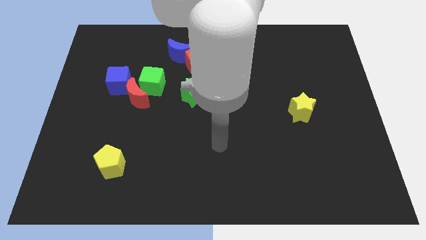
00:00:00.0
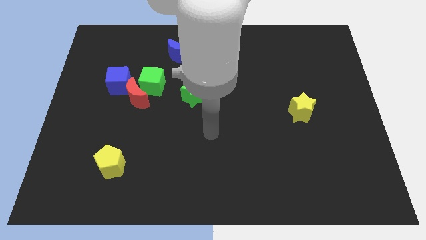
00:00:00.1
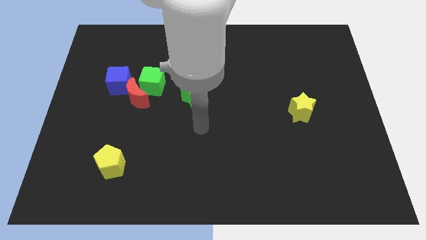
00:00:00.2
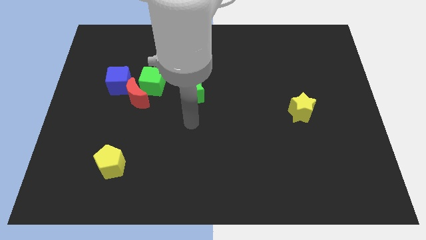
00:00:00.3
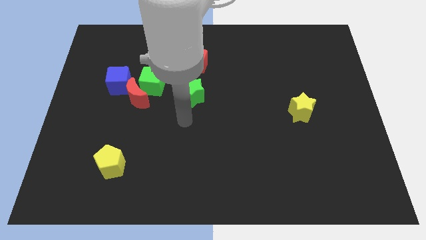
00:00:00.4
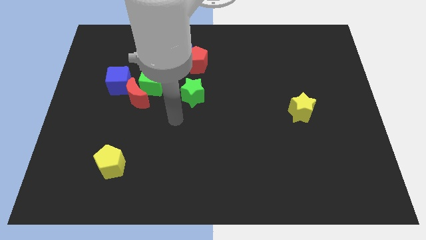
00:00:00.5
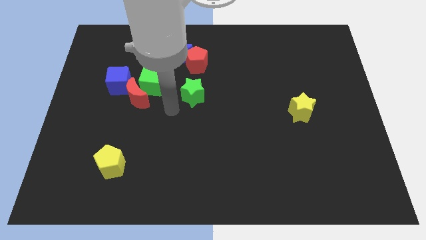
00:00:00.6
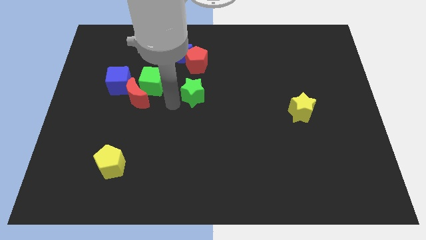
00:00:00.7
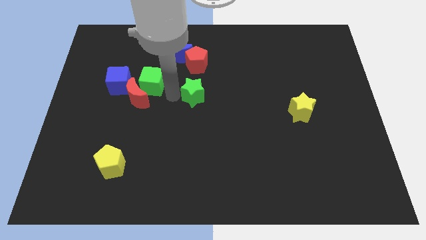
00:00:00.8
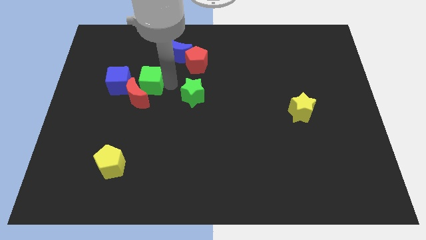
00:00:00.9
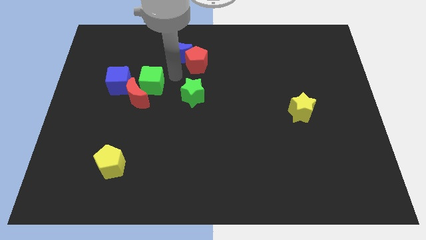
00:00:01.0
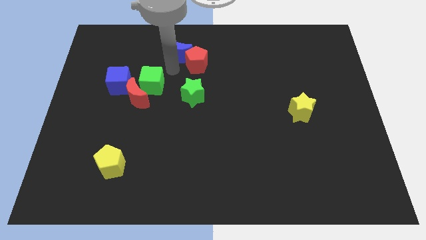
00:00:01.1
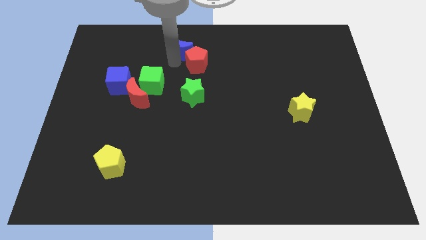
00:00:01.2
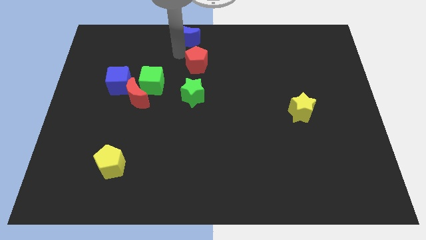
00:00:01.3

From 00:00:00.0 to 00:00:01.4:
pull the red pentagon apart from the blue moon

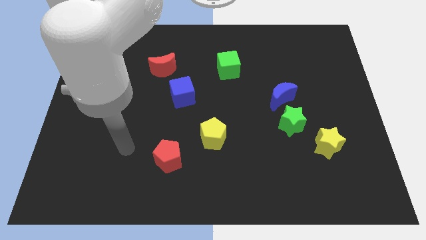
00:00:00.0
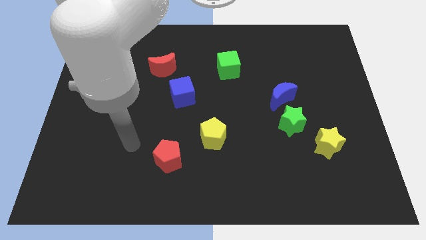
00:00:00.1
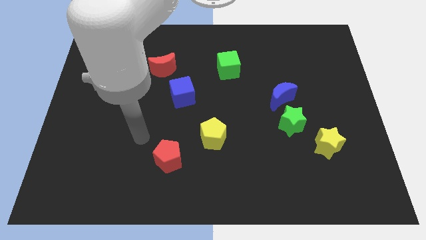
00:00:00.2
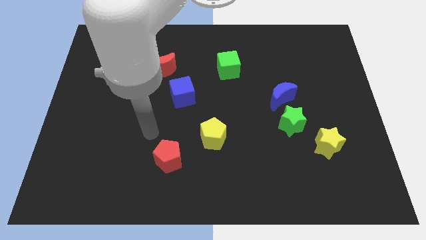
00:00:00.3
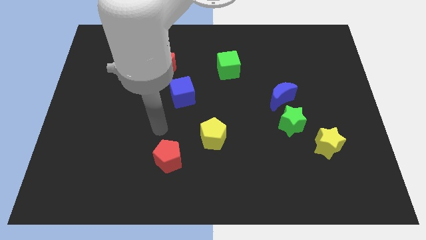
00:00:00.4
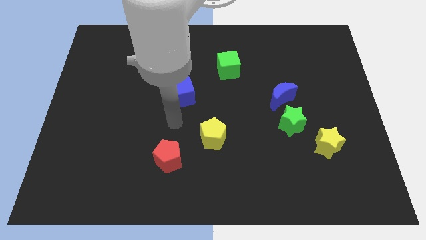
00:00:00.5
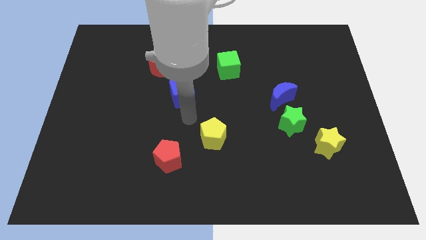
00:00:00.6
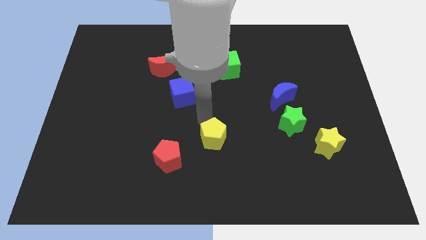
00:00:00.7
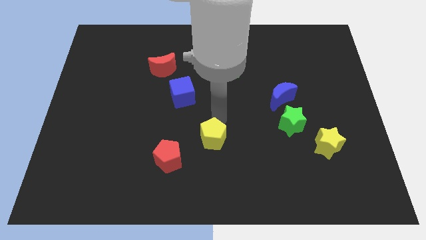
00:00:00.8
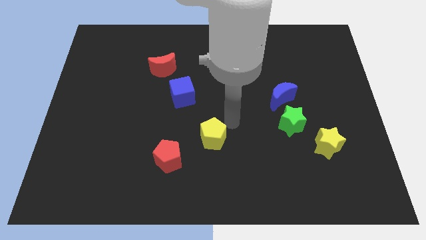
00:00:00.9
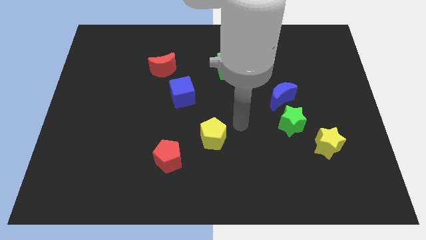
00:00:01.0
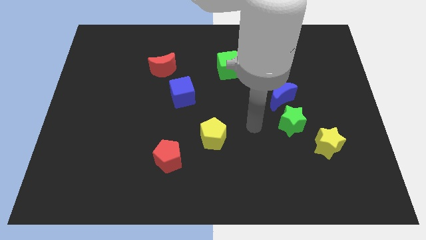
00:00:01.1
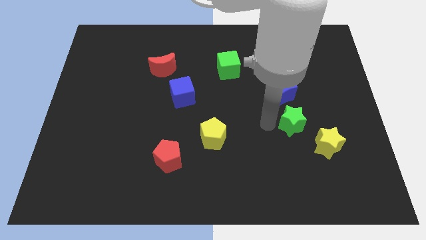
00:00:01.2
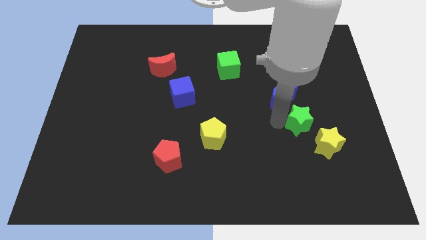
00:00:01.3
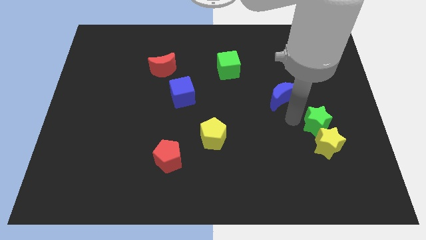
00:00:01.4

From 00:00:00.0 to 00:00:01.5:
pull the blue moon apart from the green star

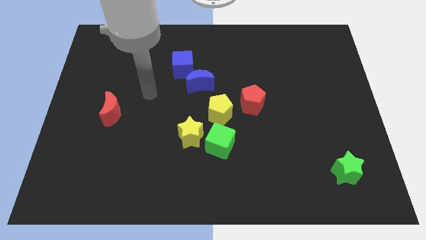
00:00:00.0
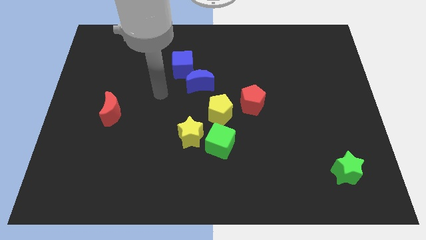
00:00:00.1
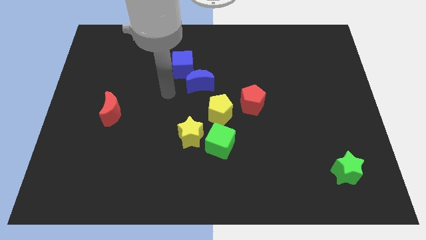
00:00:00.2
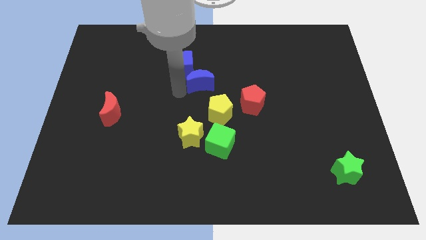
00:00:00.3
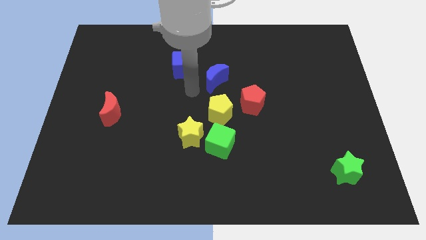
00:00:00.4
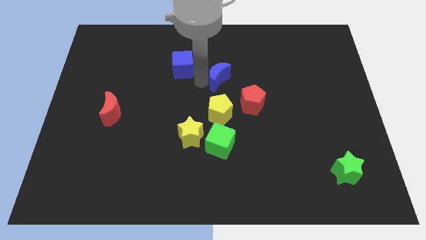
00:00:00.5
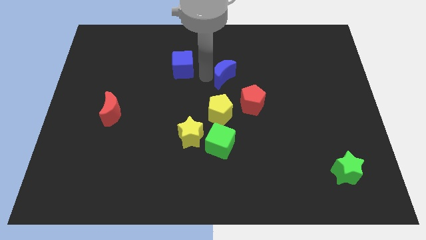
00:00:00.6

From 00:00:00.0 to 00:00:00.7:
move the blue cube away from the blue moon

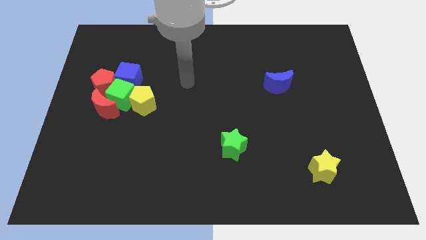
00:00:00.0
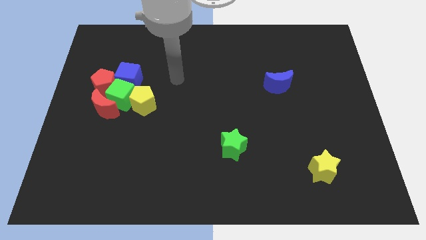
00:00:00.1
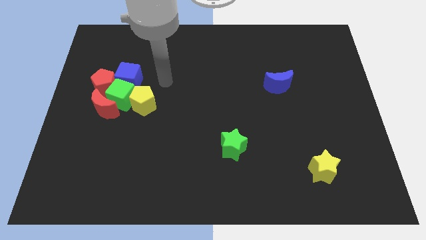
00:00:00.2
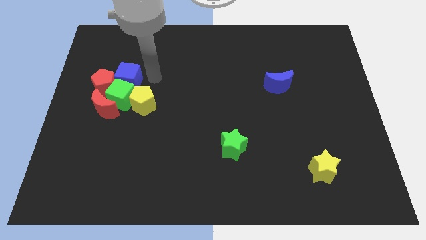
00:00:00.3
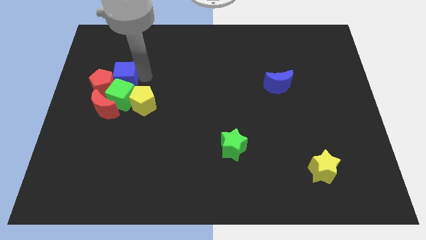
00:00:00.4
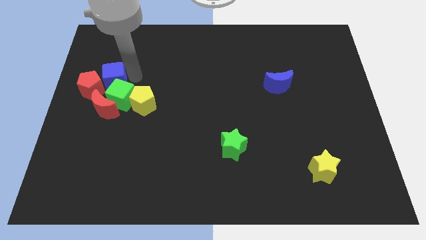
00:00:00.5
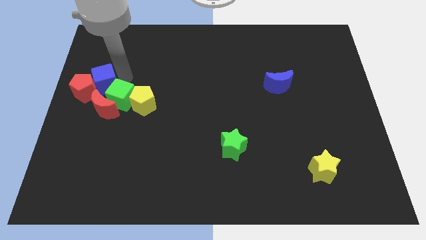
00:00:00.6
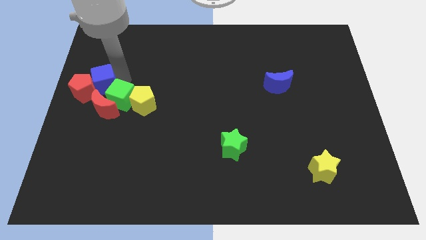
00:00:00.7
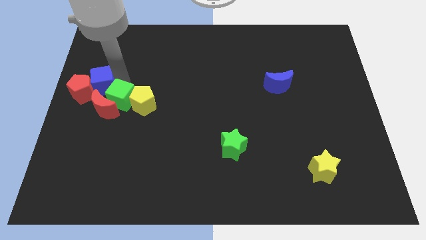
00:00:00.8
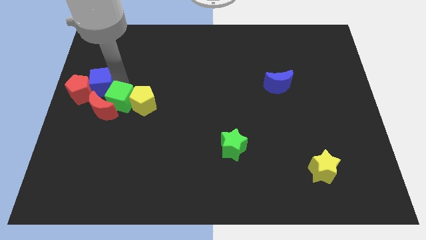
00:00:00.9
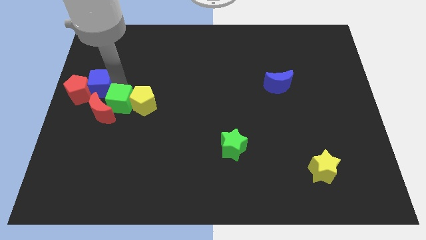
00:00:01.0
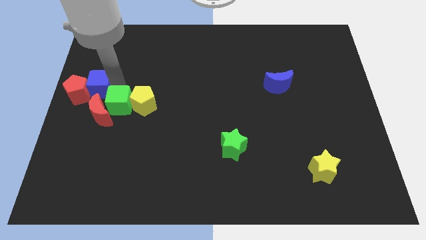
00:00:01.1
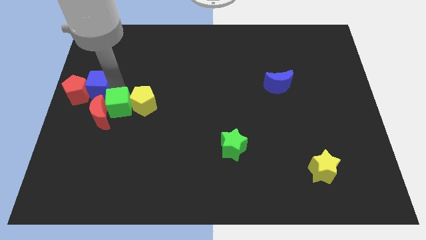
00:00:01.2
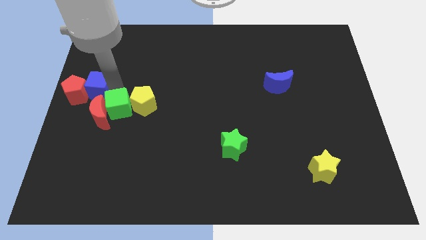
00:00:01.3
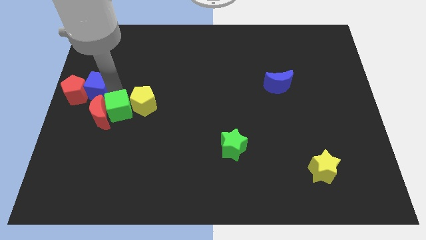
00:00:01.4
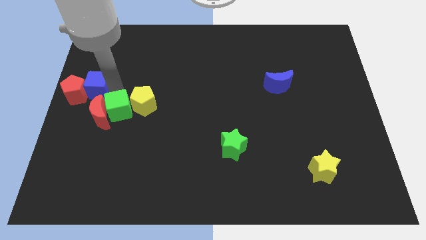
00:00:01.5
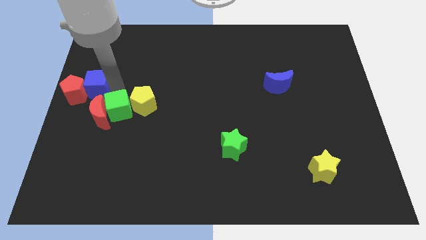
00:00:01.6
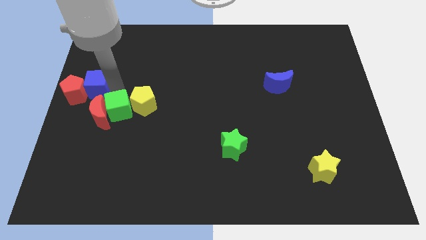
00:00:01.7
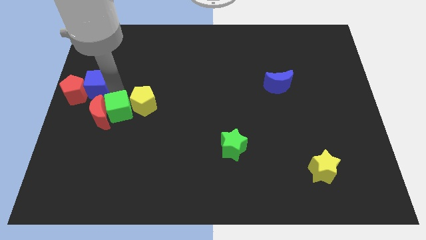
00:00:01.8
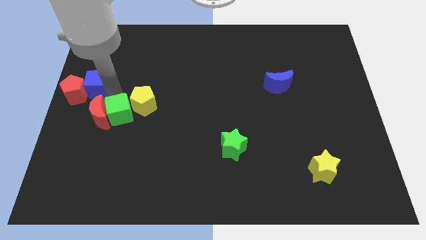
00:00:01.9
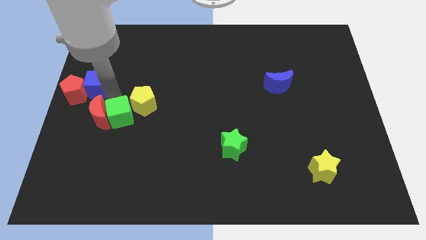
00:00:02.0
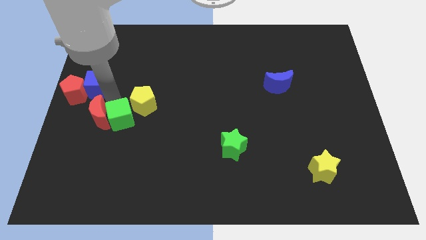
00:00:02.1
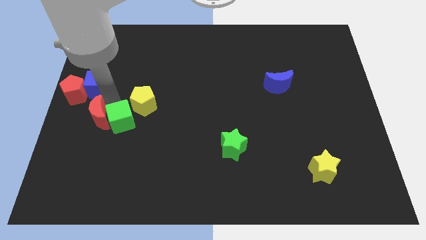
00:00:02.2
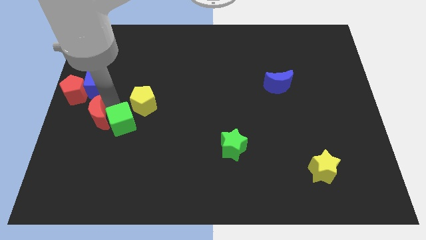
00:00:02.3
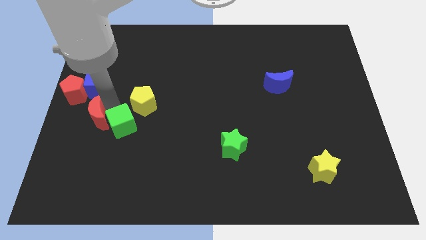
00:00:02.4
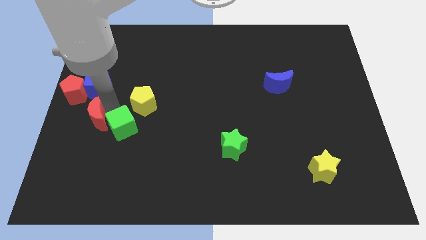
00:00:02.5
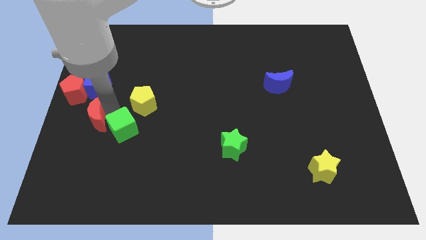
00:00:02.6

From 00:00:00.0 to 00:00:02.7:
move the green cube away from the clump

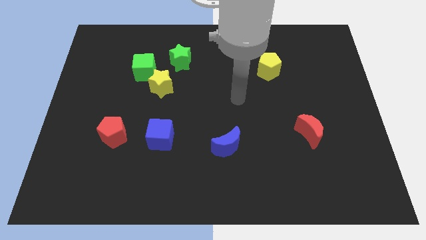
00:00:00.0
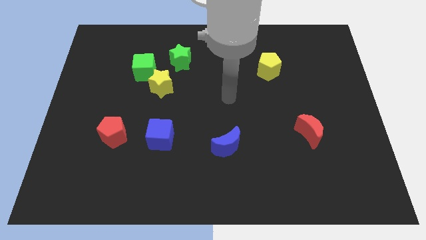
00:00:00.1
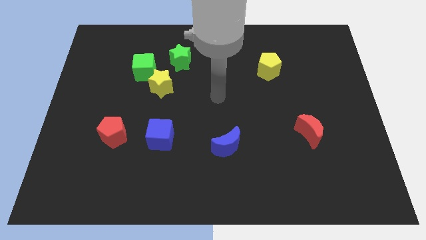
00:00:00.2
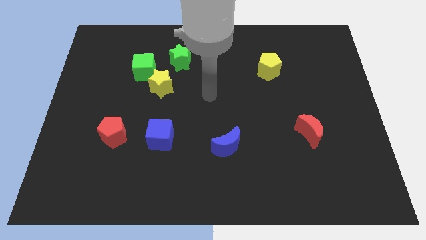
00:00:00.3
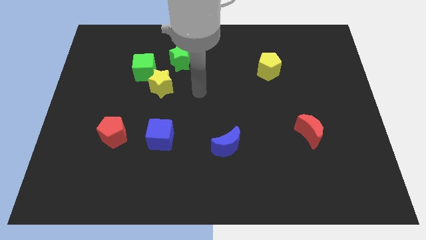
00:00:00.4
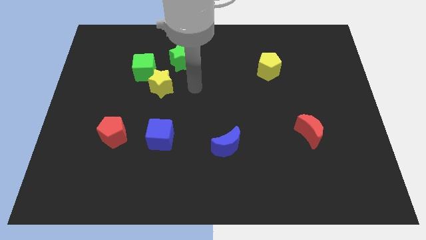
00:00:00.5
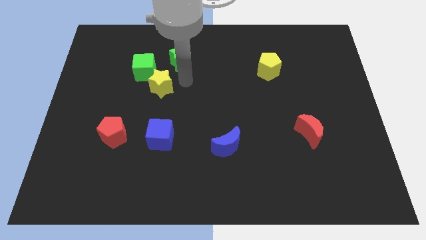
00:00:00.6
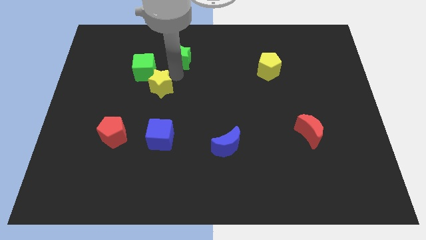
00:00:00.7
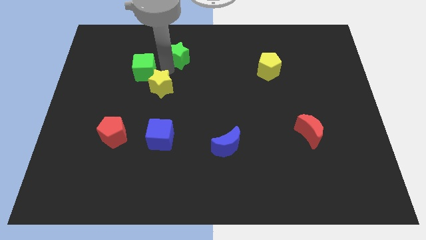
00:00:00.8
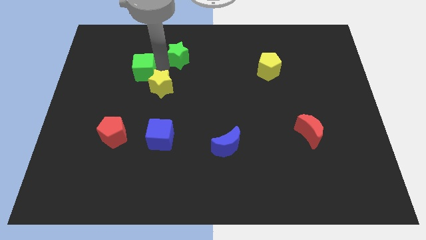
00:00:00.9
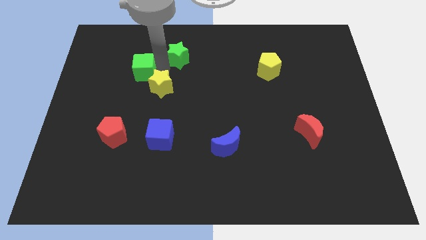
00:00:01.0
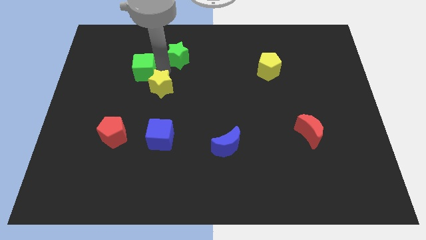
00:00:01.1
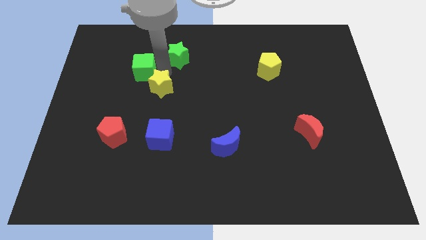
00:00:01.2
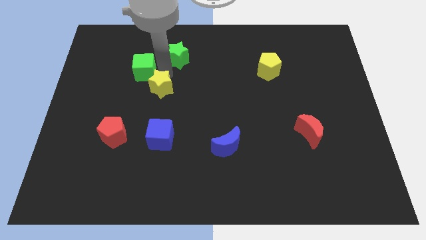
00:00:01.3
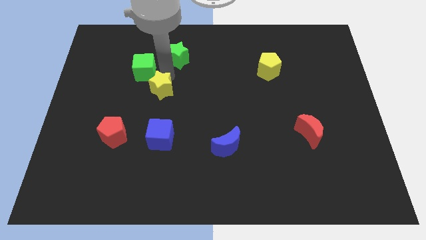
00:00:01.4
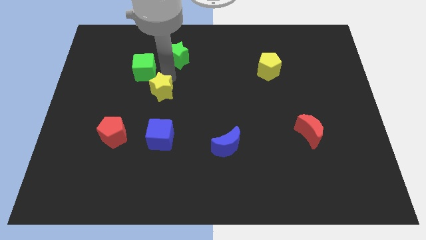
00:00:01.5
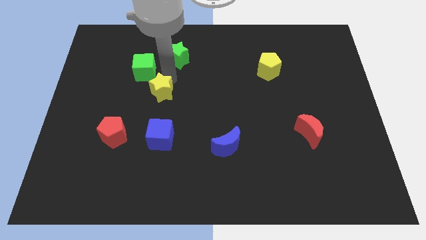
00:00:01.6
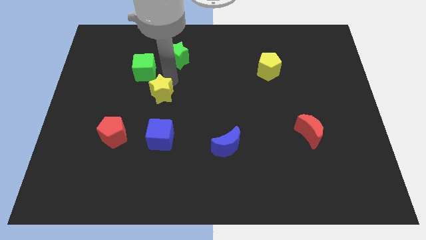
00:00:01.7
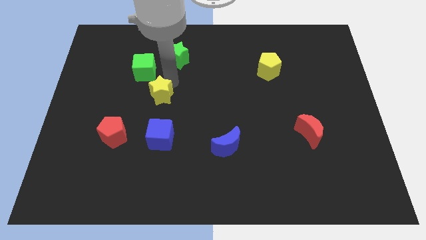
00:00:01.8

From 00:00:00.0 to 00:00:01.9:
pull the yellow star apart from the green cube and green star

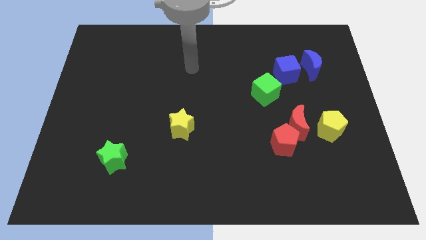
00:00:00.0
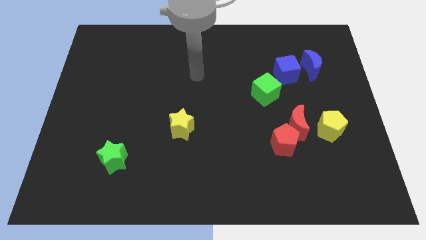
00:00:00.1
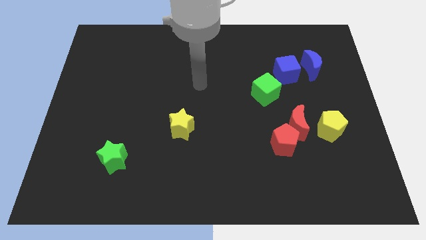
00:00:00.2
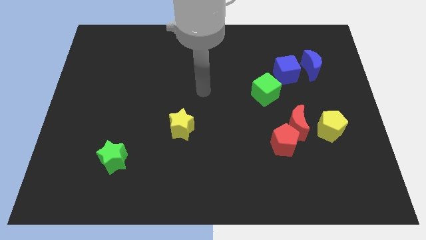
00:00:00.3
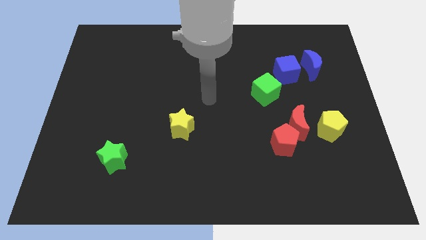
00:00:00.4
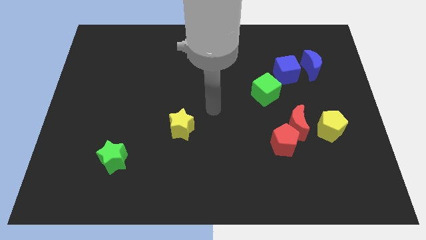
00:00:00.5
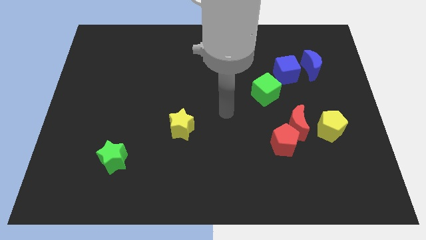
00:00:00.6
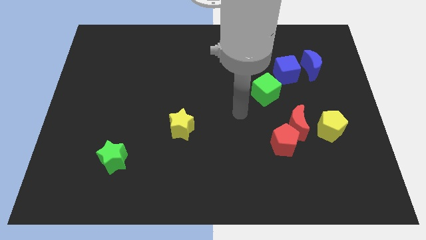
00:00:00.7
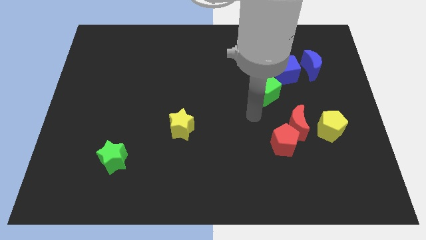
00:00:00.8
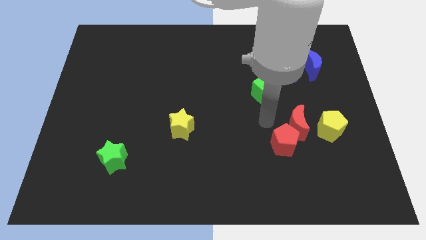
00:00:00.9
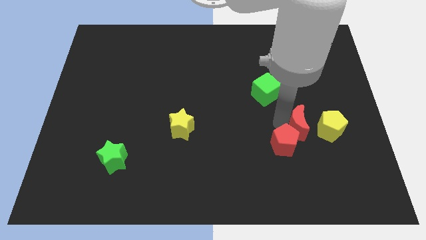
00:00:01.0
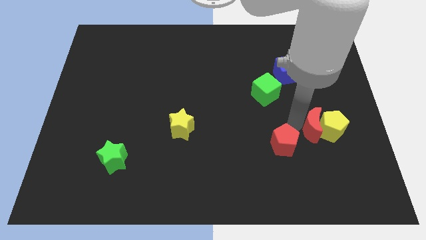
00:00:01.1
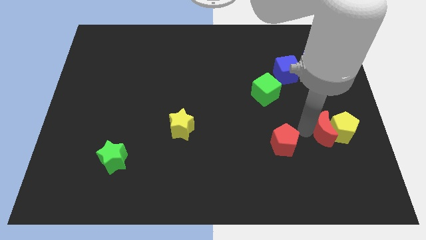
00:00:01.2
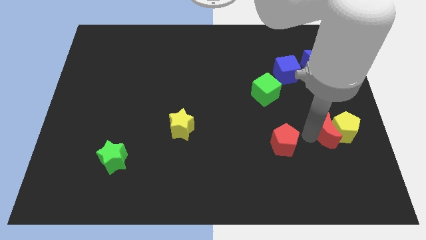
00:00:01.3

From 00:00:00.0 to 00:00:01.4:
pull the red pentagon apart from the red moon
